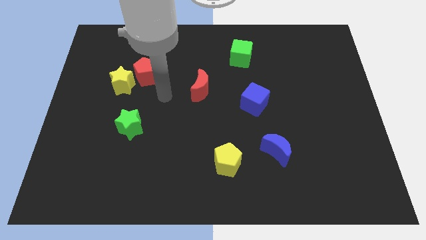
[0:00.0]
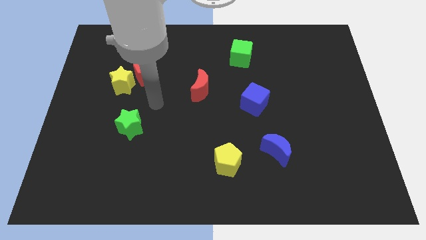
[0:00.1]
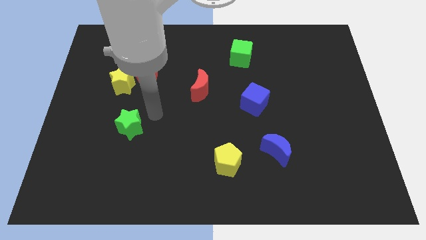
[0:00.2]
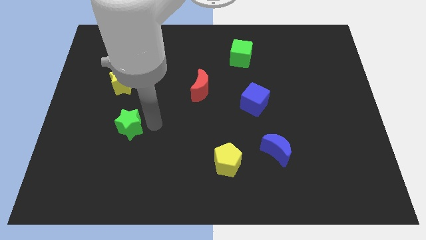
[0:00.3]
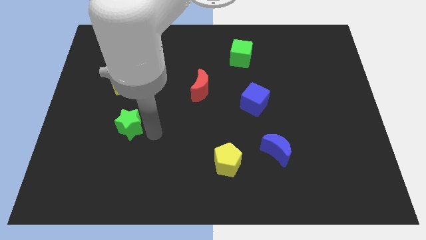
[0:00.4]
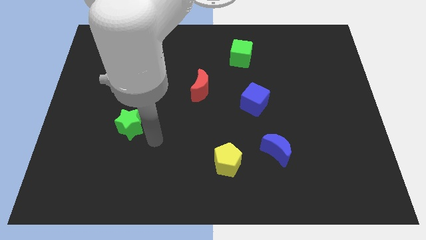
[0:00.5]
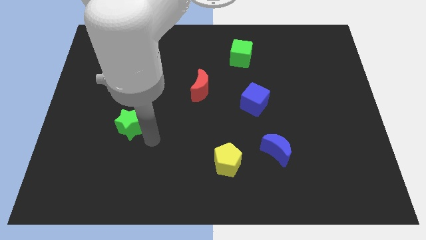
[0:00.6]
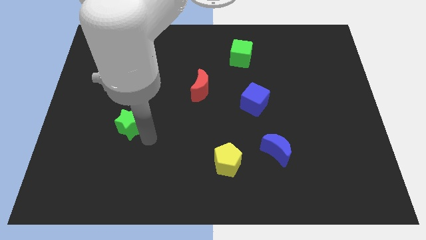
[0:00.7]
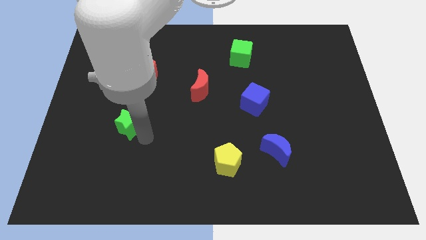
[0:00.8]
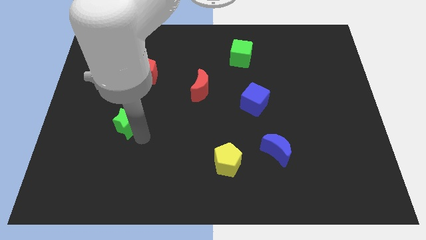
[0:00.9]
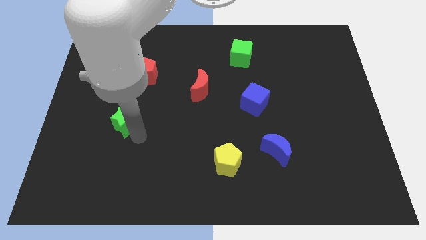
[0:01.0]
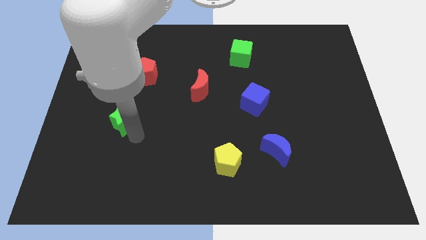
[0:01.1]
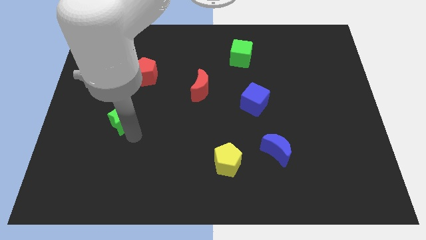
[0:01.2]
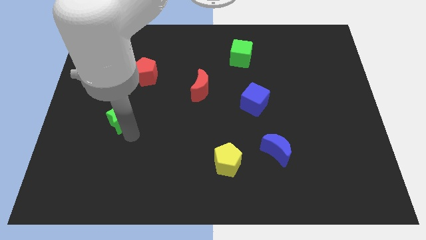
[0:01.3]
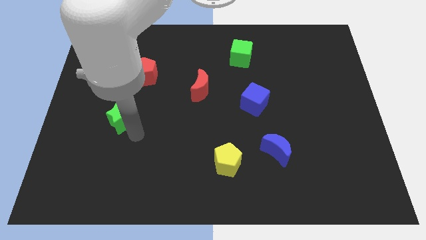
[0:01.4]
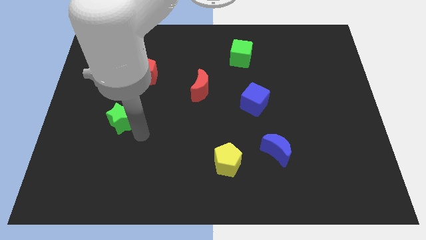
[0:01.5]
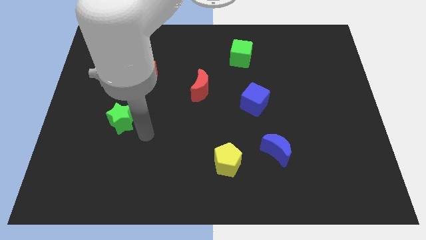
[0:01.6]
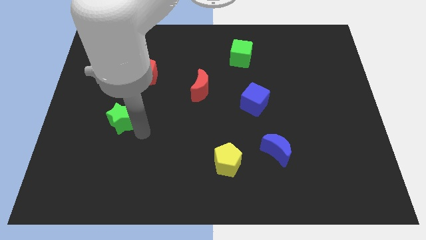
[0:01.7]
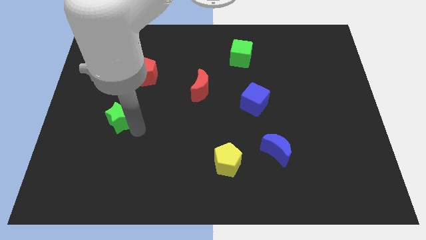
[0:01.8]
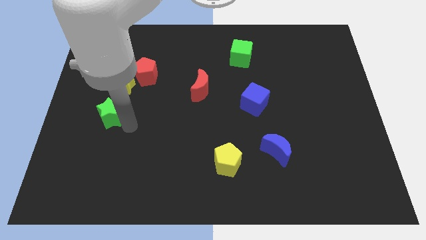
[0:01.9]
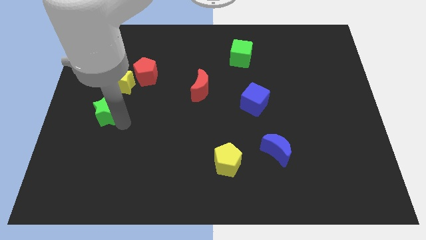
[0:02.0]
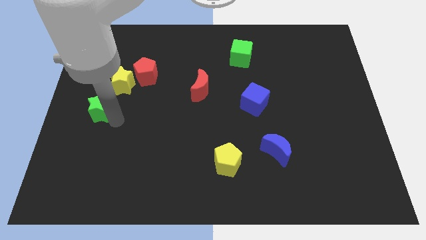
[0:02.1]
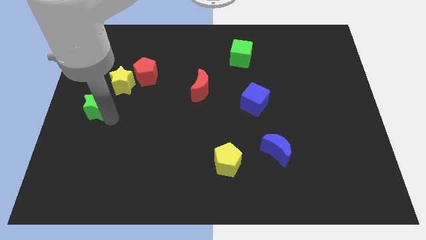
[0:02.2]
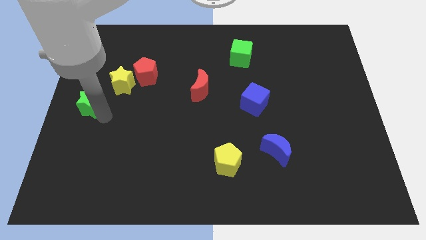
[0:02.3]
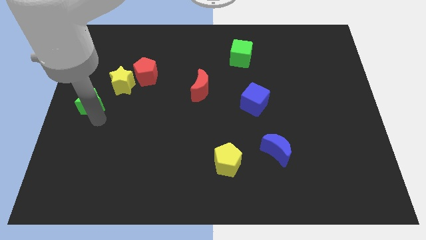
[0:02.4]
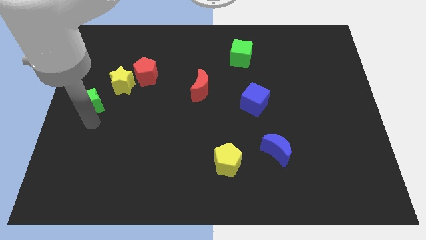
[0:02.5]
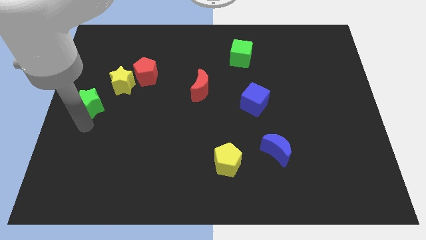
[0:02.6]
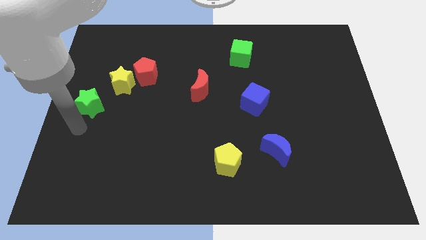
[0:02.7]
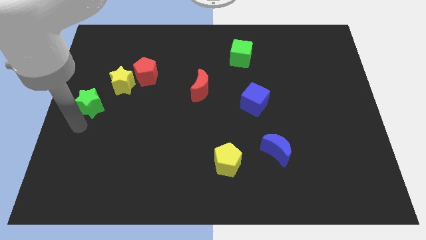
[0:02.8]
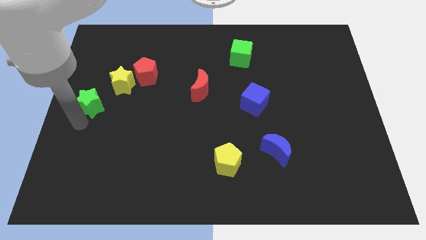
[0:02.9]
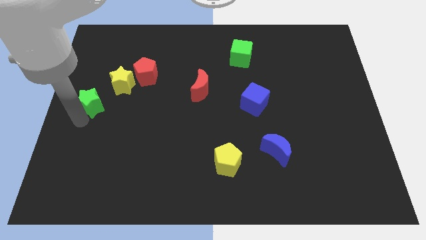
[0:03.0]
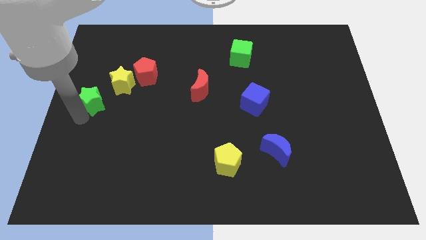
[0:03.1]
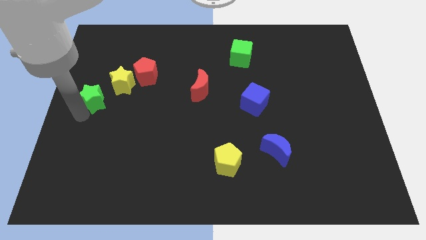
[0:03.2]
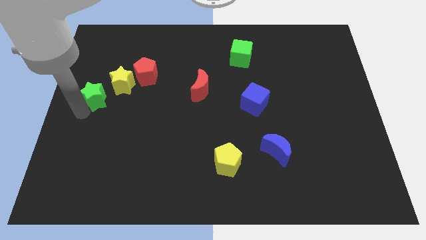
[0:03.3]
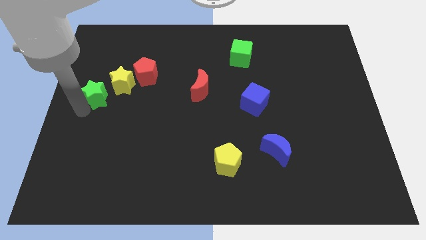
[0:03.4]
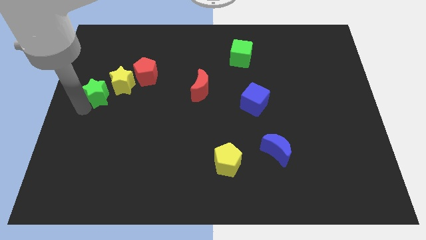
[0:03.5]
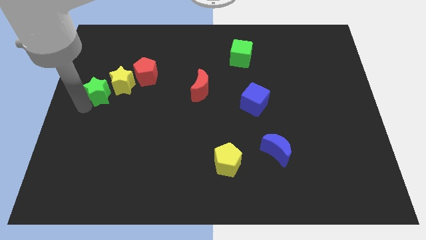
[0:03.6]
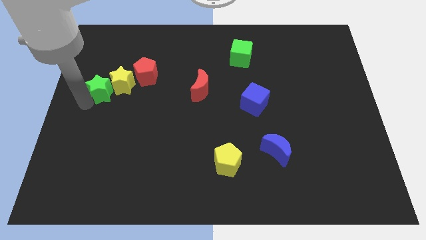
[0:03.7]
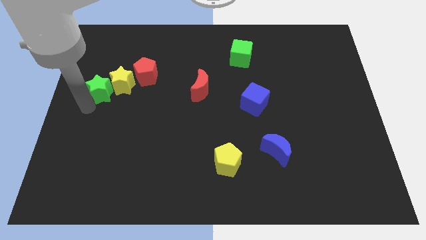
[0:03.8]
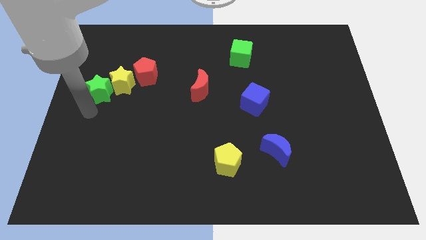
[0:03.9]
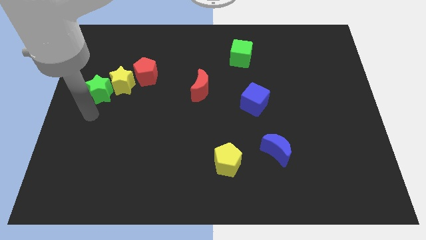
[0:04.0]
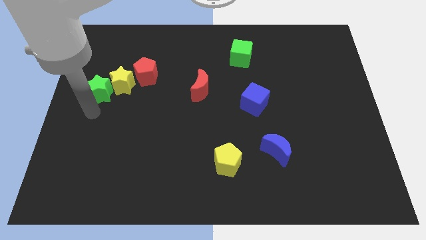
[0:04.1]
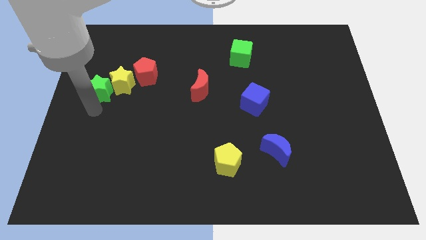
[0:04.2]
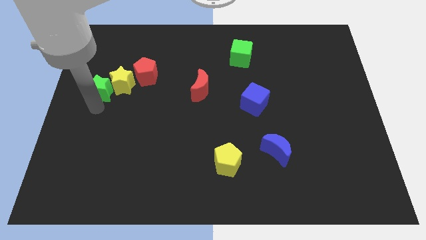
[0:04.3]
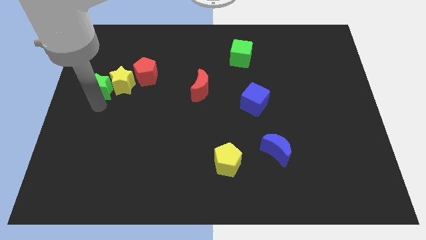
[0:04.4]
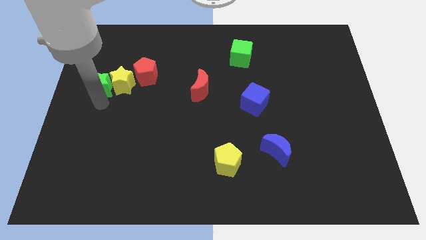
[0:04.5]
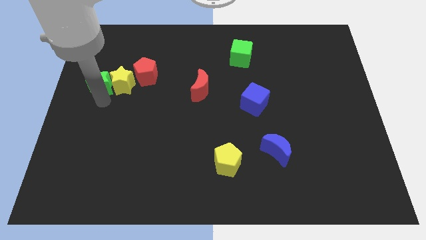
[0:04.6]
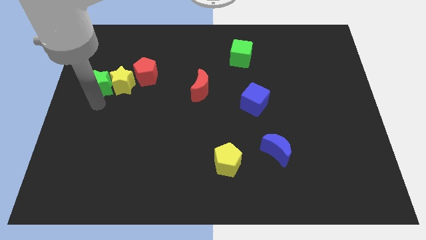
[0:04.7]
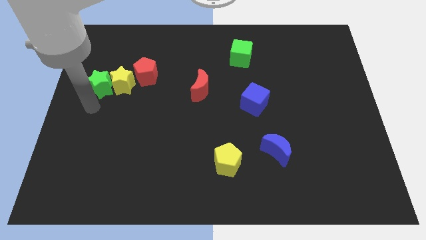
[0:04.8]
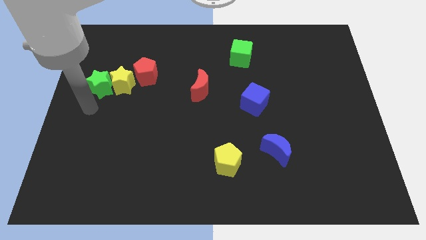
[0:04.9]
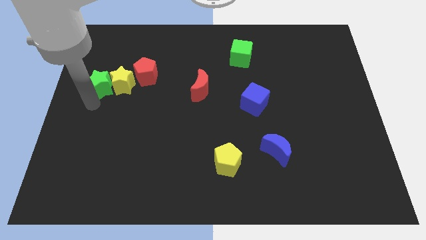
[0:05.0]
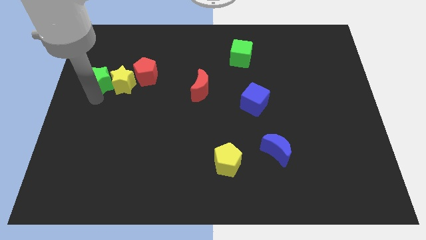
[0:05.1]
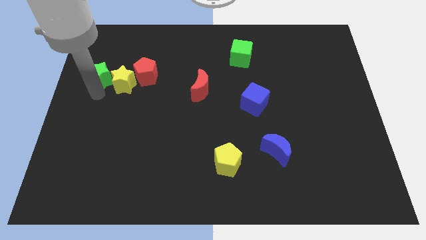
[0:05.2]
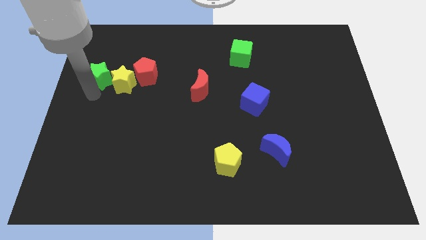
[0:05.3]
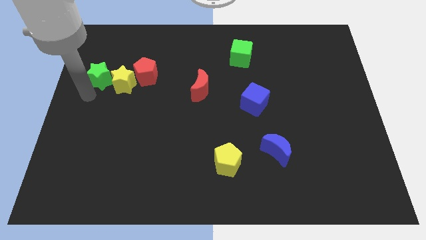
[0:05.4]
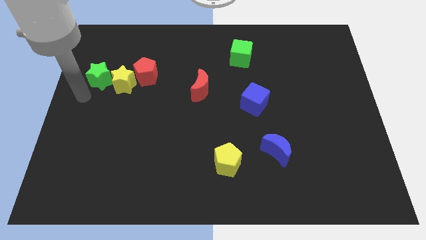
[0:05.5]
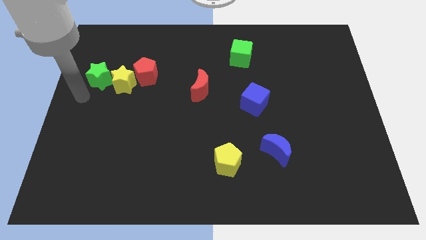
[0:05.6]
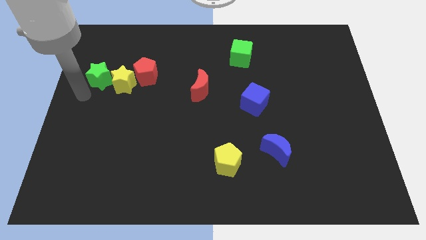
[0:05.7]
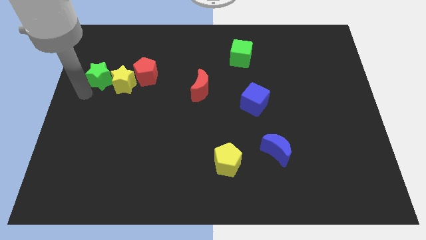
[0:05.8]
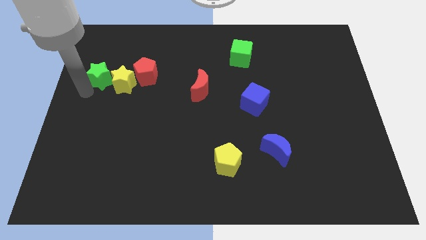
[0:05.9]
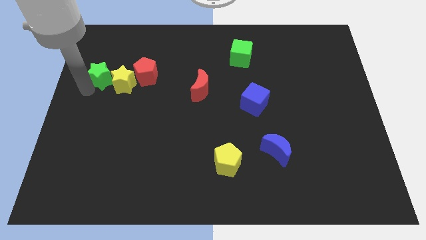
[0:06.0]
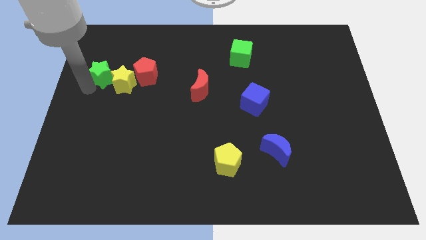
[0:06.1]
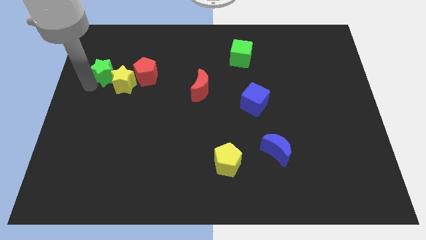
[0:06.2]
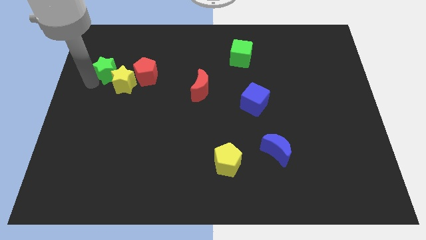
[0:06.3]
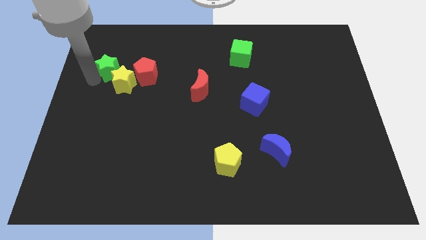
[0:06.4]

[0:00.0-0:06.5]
move the green star above the yellow star

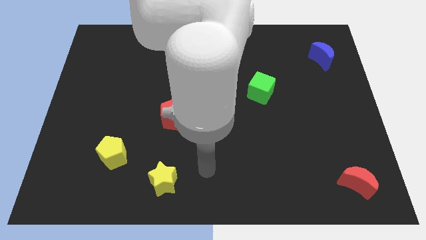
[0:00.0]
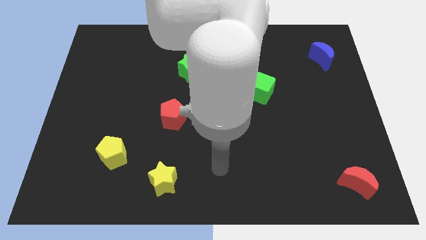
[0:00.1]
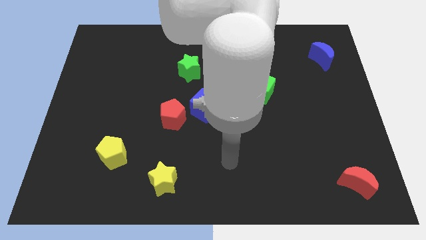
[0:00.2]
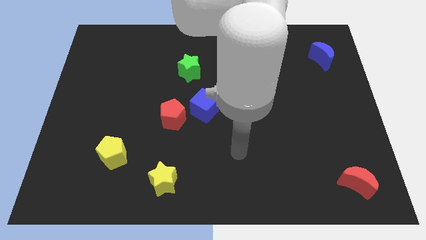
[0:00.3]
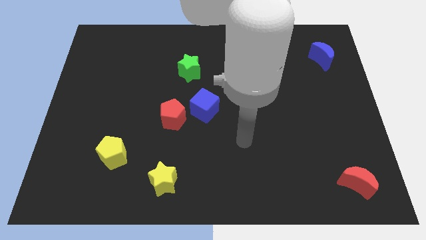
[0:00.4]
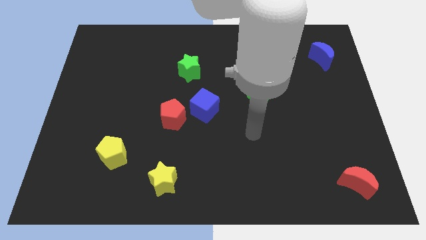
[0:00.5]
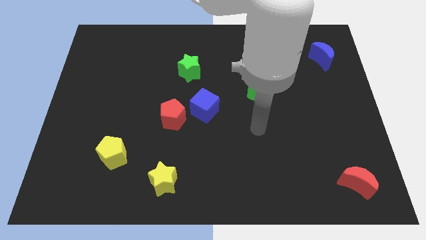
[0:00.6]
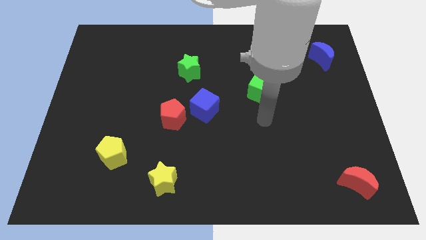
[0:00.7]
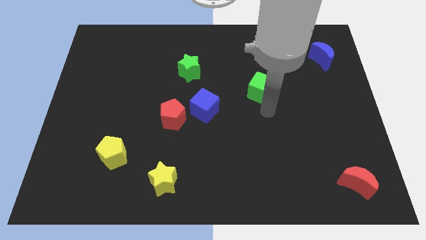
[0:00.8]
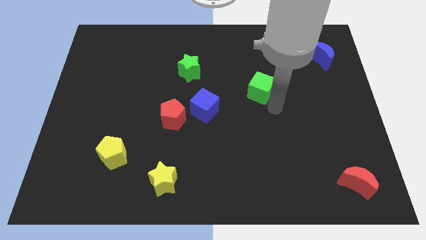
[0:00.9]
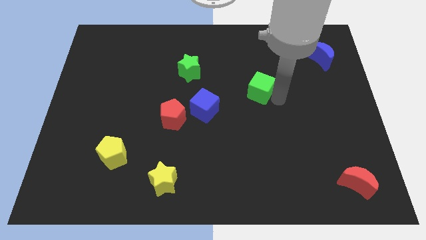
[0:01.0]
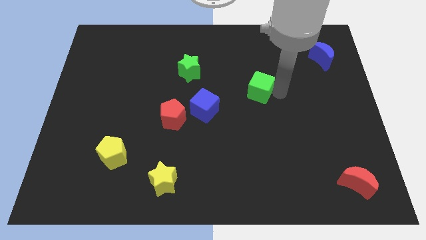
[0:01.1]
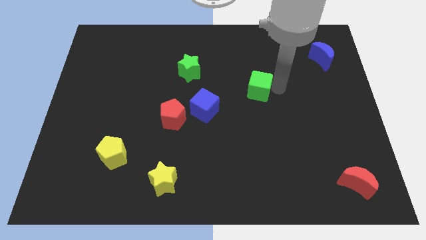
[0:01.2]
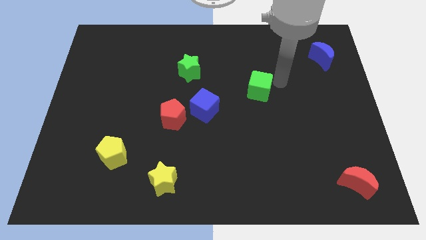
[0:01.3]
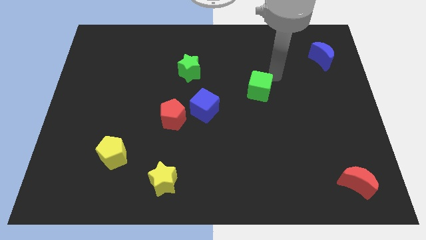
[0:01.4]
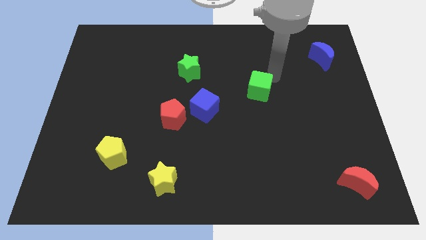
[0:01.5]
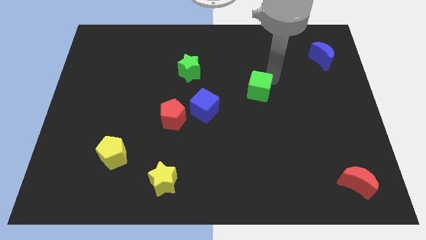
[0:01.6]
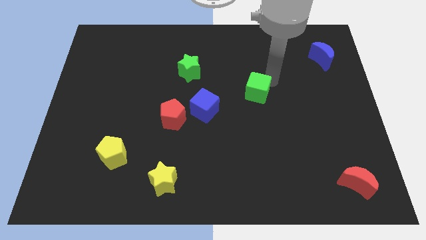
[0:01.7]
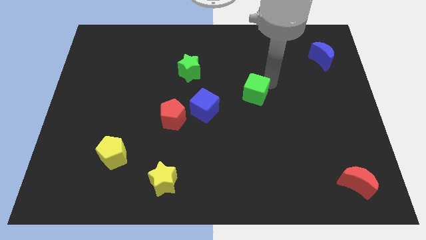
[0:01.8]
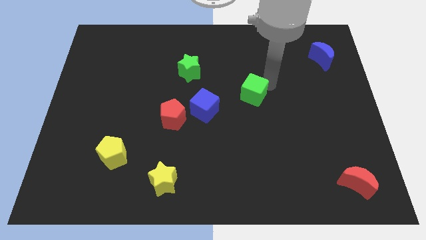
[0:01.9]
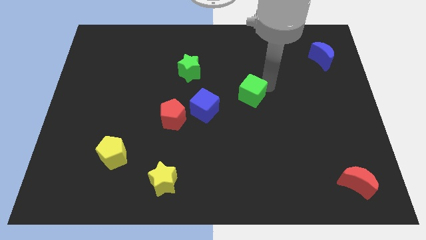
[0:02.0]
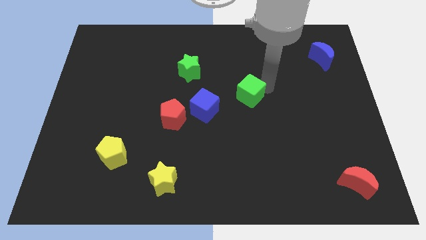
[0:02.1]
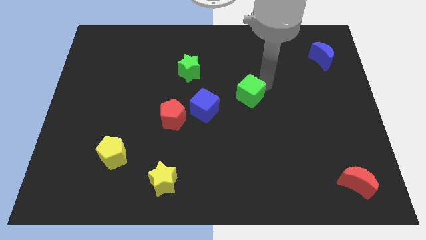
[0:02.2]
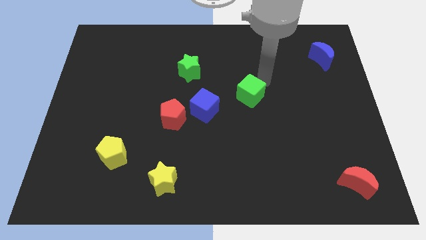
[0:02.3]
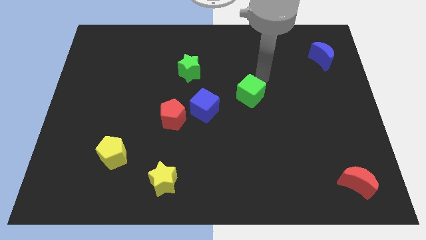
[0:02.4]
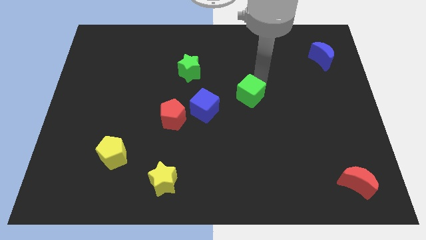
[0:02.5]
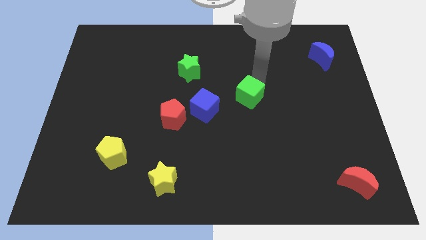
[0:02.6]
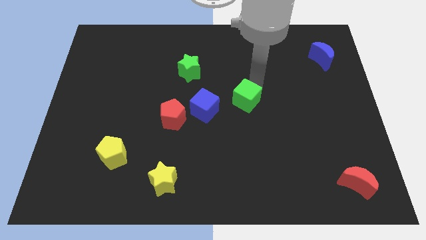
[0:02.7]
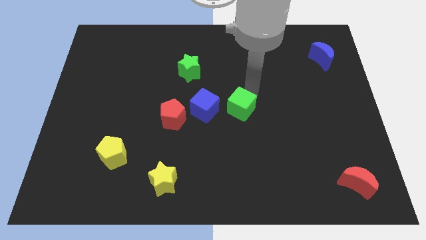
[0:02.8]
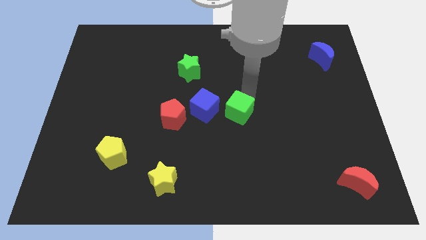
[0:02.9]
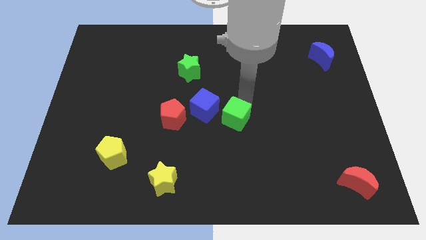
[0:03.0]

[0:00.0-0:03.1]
move the green cube diagonally down and to the right of the blue cube
